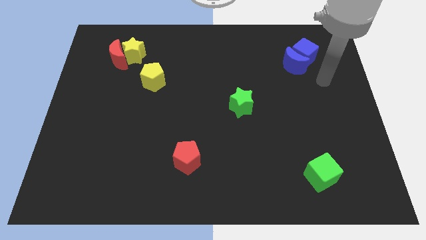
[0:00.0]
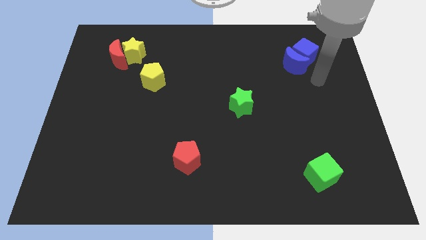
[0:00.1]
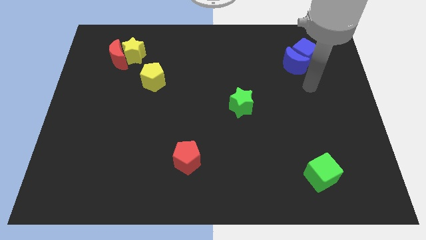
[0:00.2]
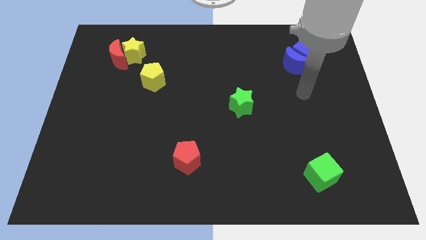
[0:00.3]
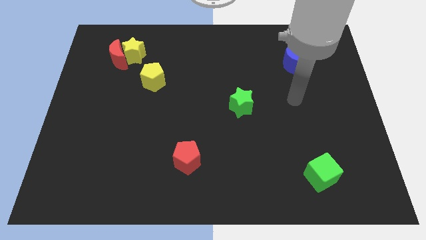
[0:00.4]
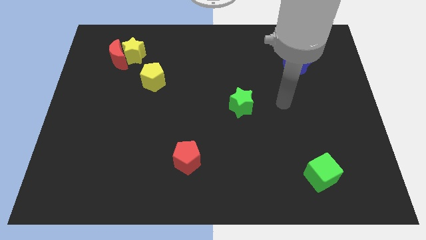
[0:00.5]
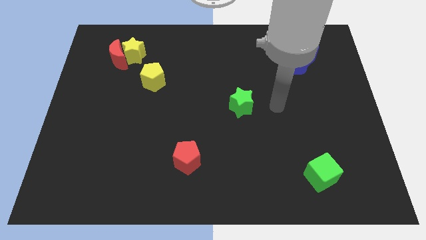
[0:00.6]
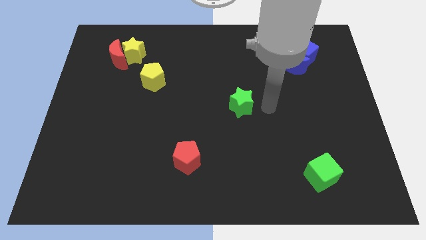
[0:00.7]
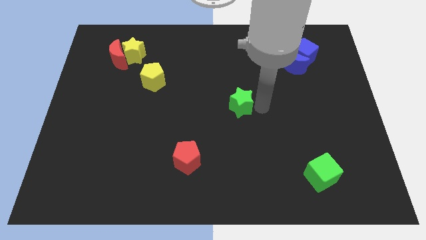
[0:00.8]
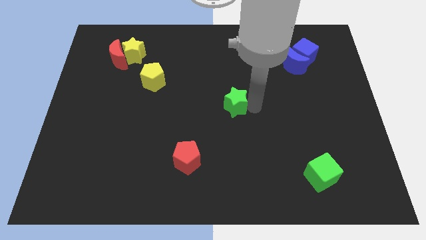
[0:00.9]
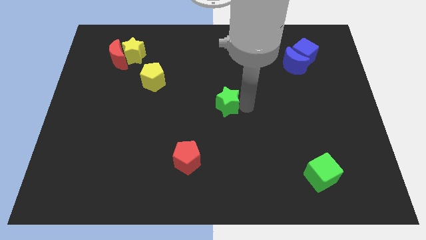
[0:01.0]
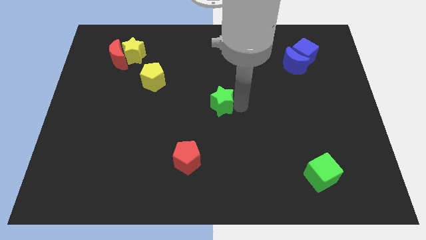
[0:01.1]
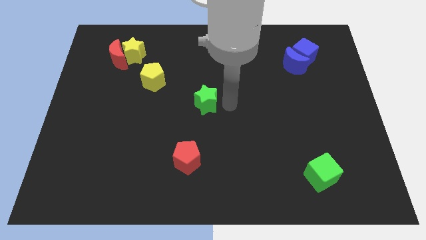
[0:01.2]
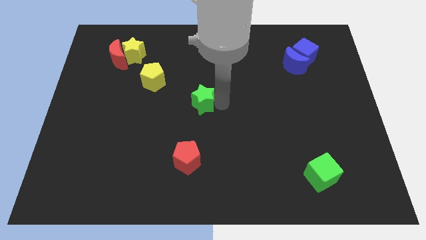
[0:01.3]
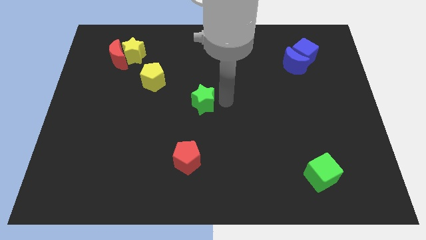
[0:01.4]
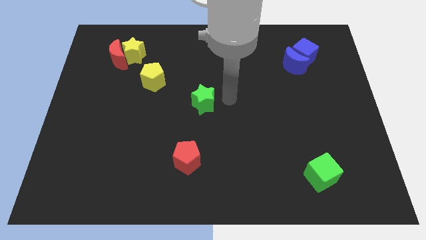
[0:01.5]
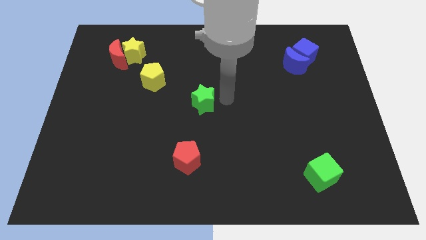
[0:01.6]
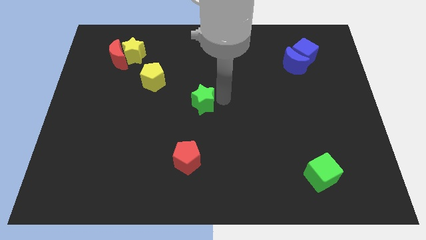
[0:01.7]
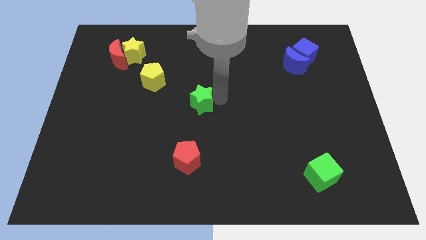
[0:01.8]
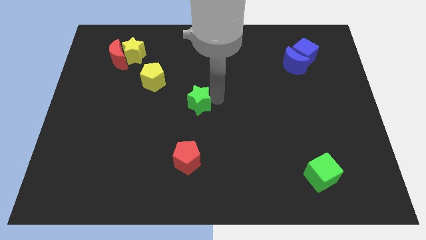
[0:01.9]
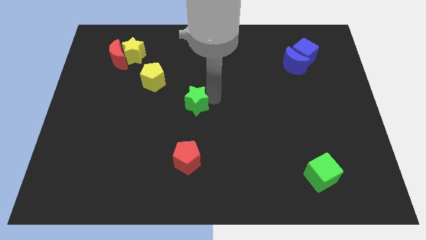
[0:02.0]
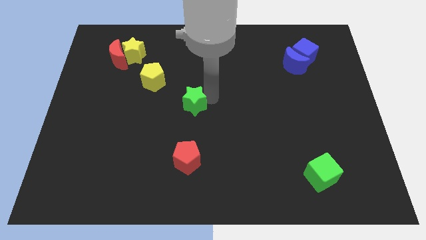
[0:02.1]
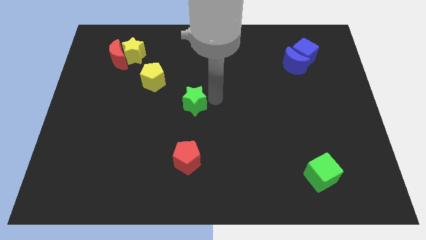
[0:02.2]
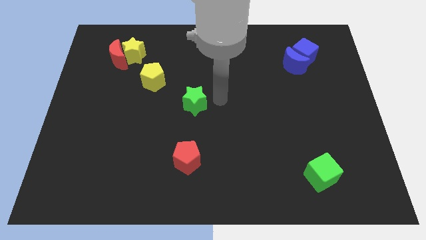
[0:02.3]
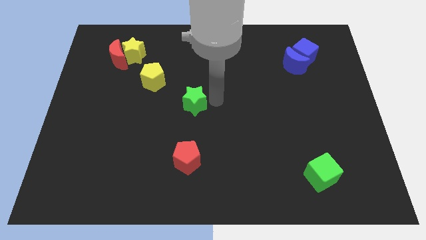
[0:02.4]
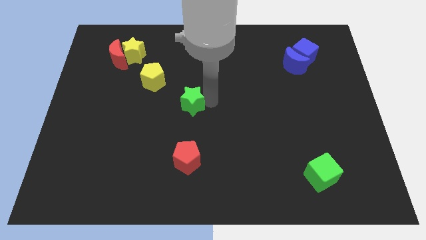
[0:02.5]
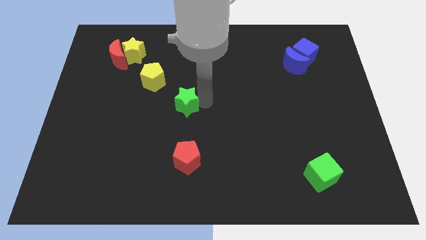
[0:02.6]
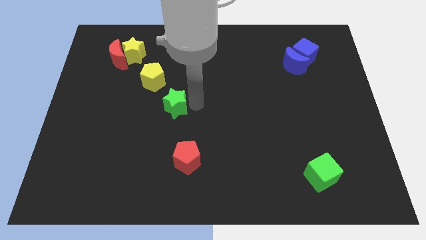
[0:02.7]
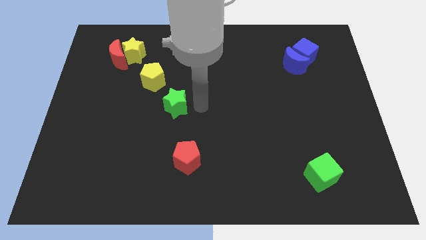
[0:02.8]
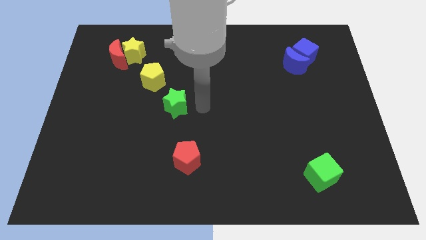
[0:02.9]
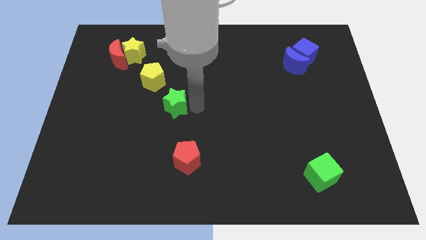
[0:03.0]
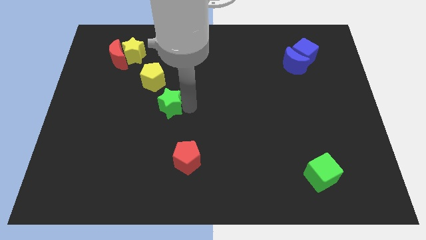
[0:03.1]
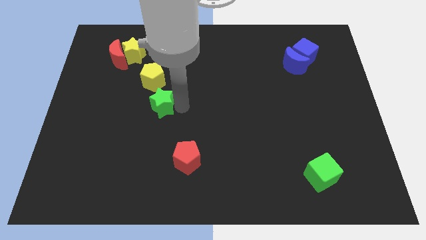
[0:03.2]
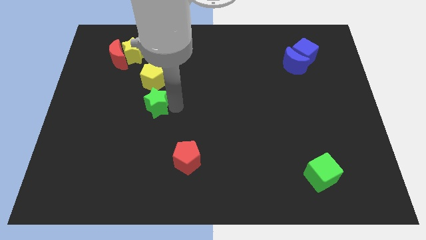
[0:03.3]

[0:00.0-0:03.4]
slide the green star left

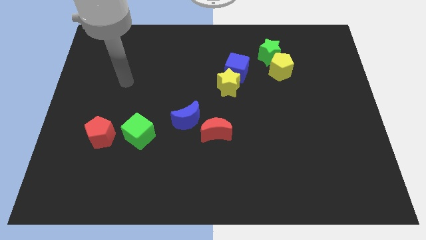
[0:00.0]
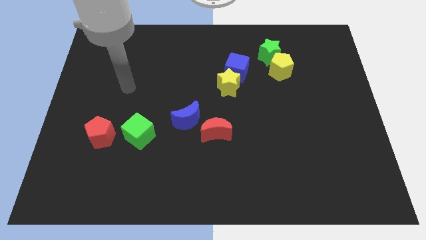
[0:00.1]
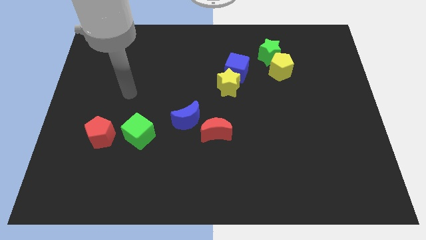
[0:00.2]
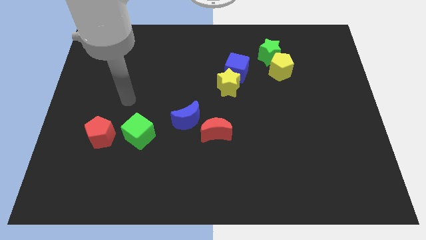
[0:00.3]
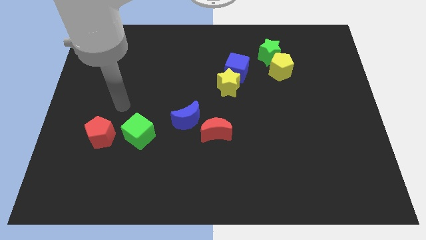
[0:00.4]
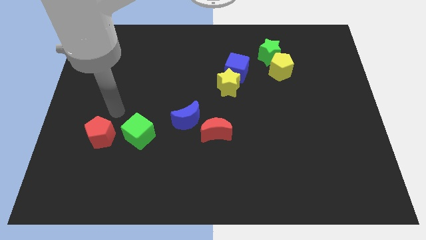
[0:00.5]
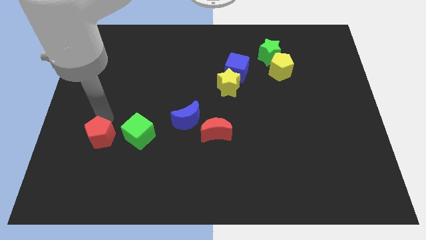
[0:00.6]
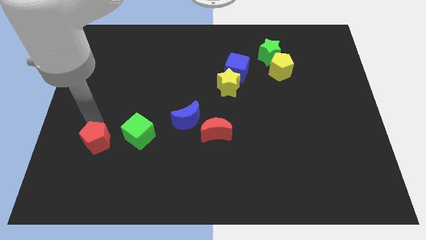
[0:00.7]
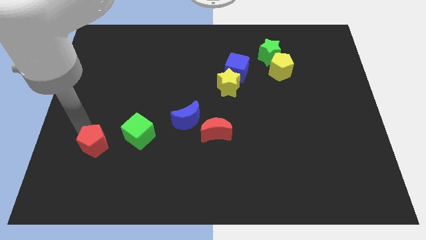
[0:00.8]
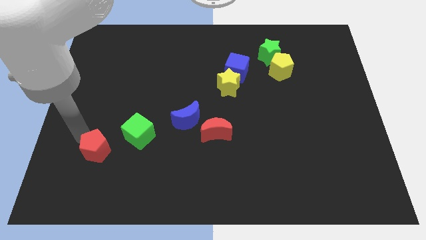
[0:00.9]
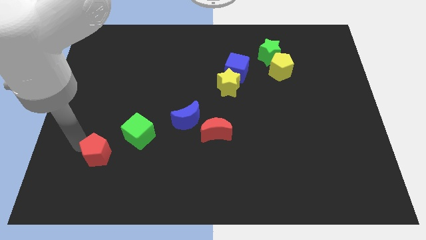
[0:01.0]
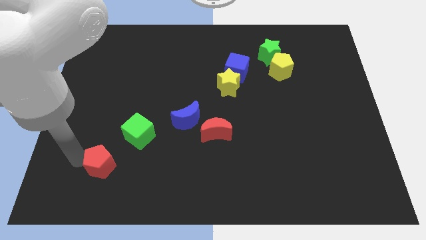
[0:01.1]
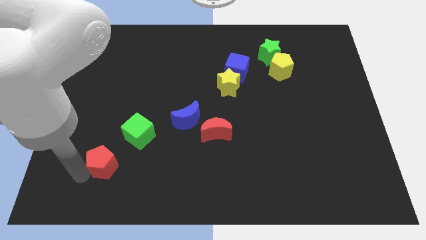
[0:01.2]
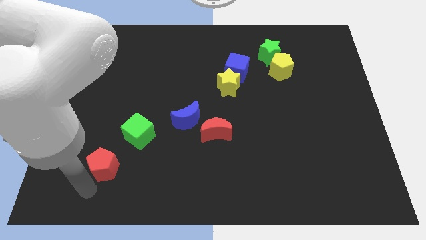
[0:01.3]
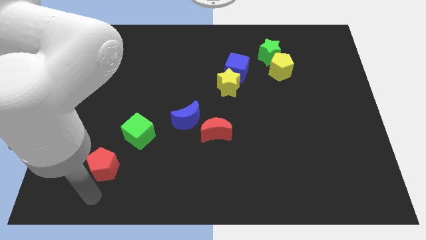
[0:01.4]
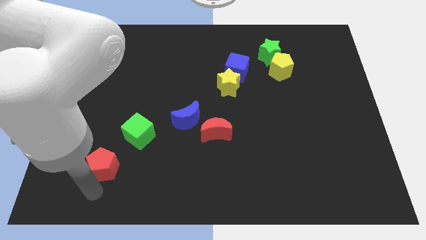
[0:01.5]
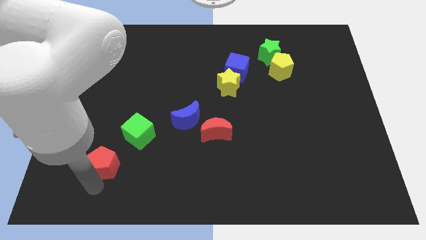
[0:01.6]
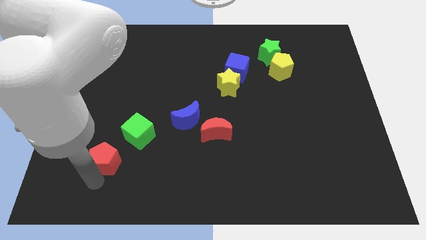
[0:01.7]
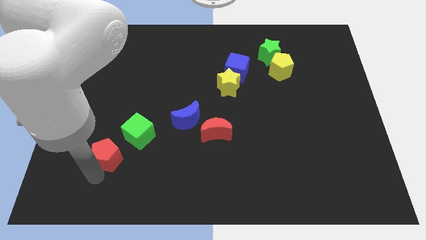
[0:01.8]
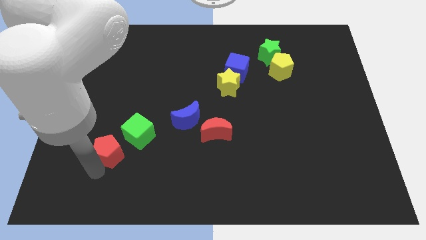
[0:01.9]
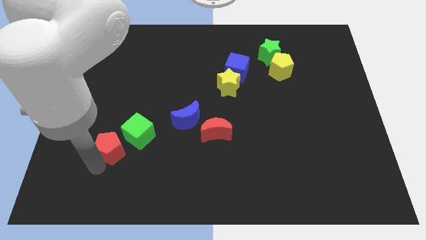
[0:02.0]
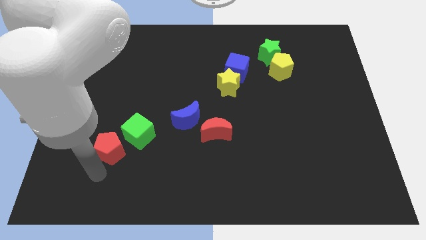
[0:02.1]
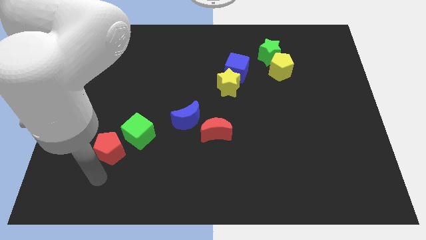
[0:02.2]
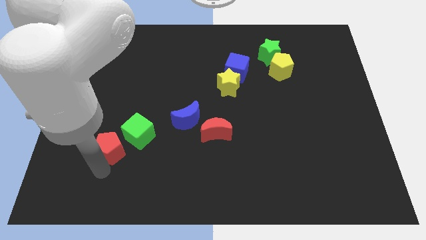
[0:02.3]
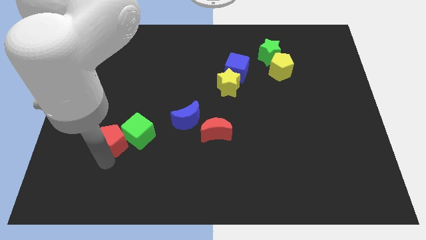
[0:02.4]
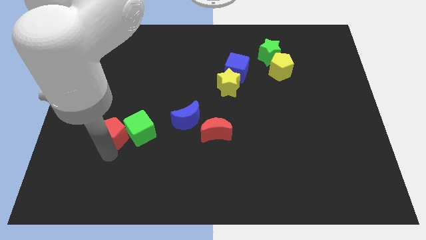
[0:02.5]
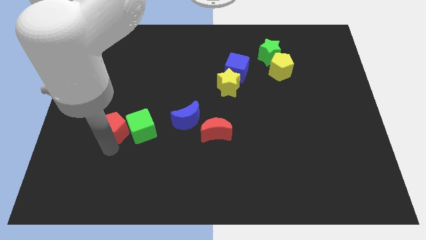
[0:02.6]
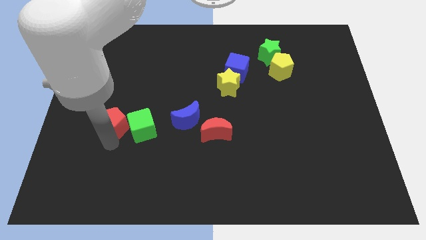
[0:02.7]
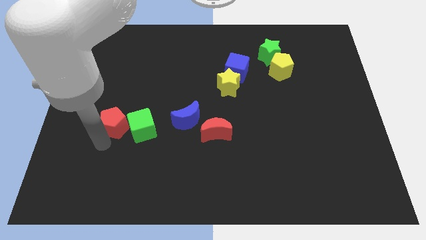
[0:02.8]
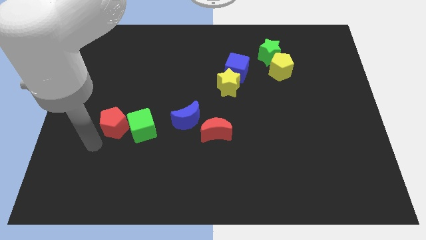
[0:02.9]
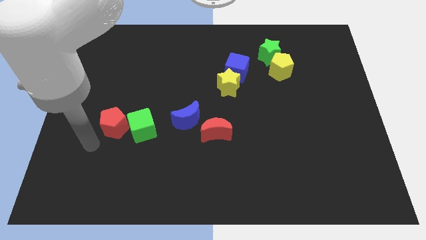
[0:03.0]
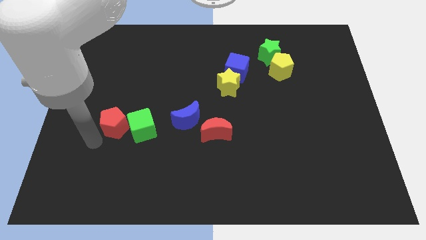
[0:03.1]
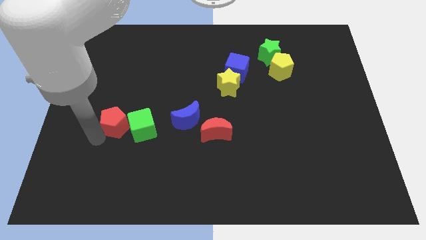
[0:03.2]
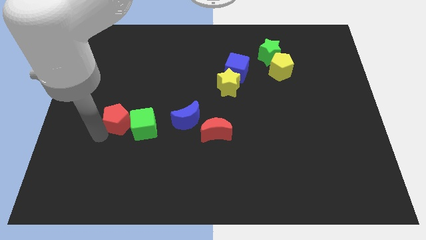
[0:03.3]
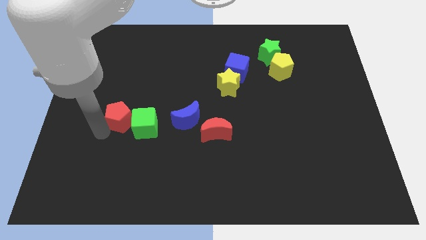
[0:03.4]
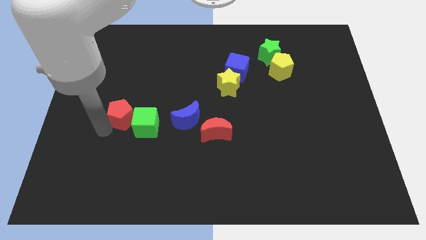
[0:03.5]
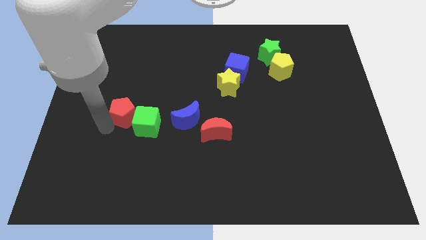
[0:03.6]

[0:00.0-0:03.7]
slightly slide the red pentagon diagonally up and to the right

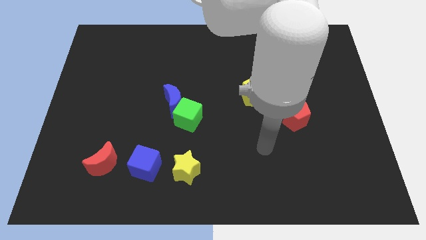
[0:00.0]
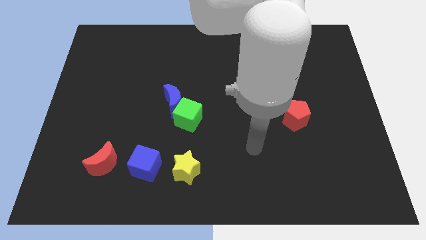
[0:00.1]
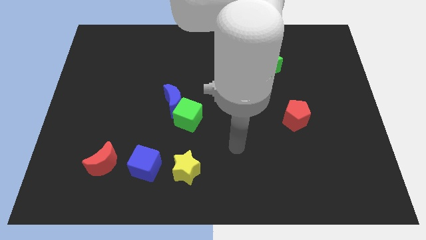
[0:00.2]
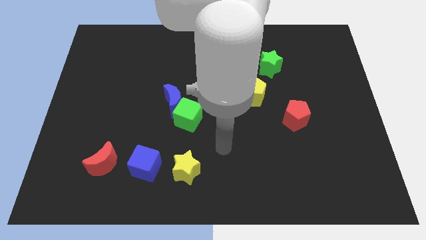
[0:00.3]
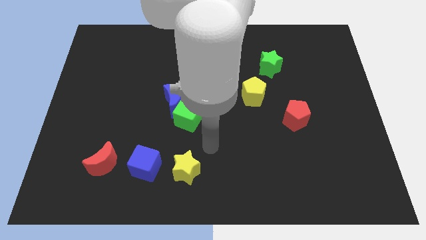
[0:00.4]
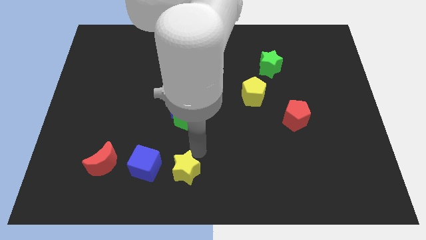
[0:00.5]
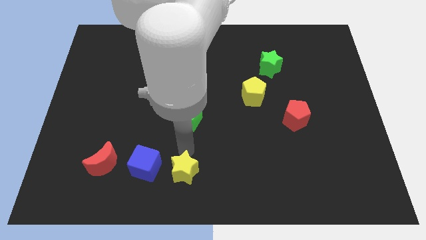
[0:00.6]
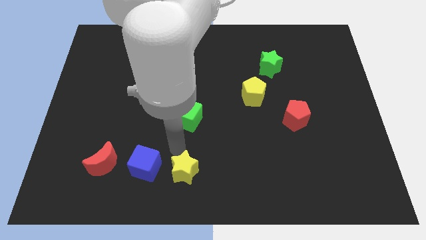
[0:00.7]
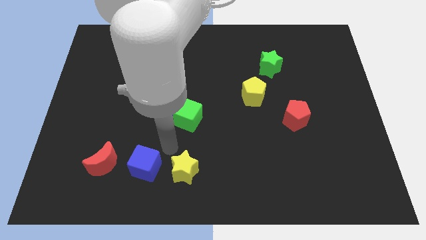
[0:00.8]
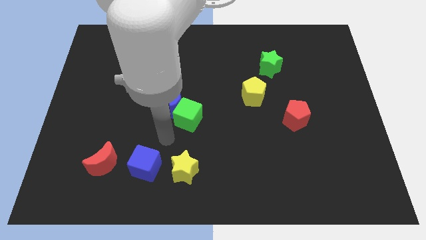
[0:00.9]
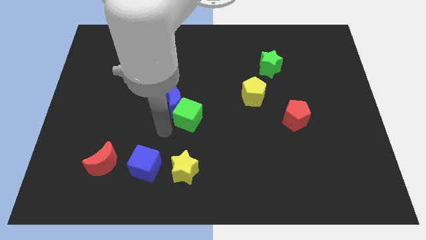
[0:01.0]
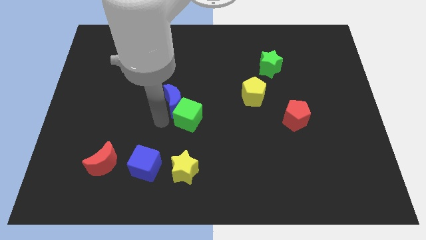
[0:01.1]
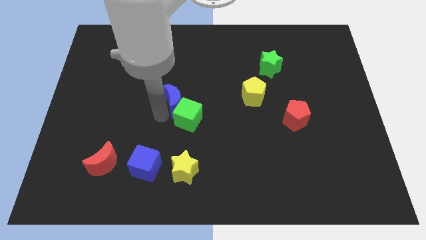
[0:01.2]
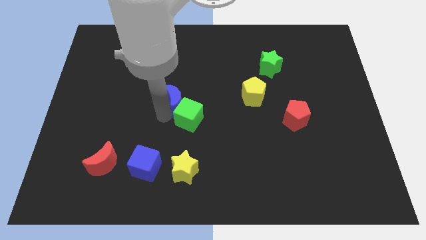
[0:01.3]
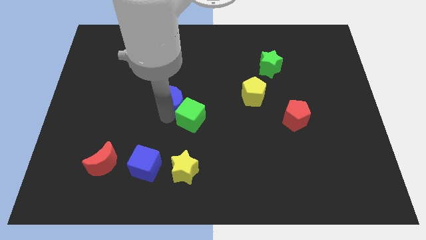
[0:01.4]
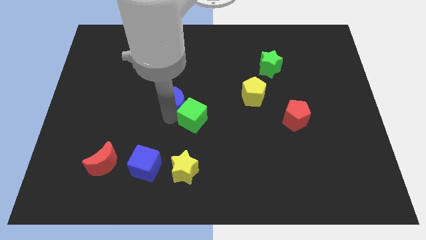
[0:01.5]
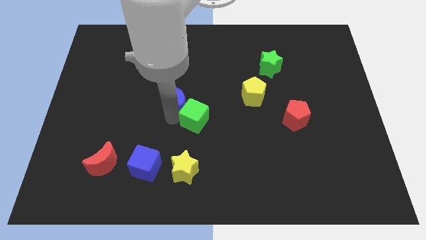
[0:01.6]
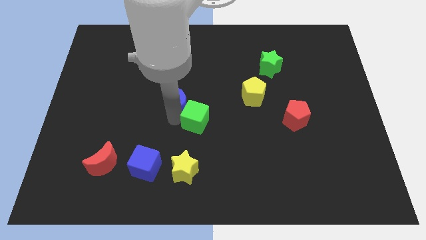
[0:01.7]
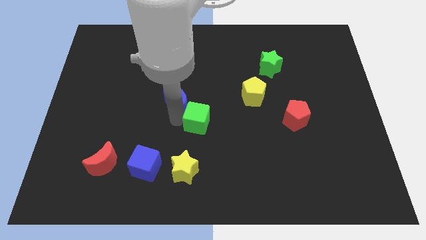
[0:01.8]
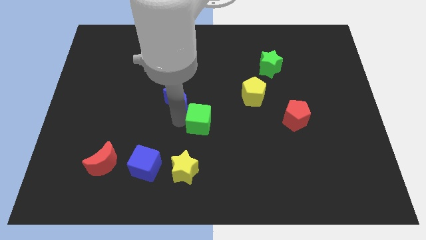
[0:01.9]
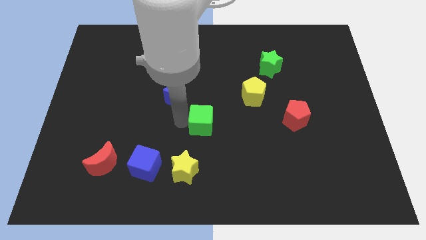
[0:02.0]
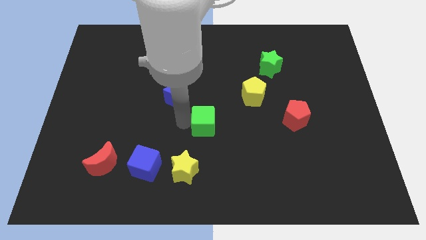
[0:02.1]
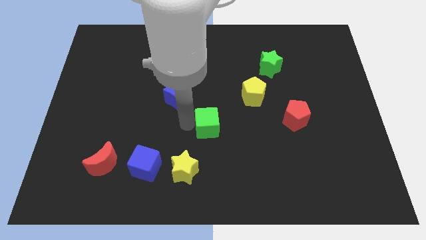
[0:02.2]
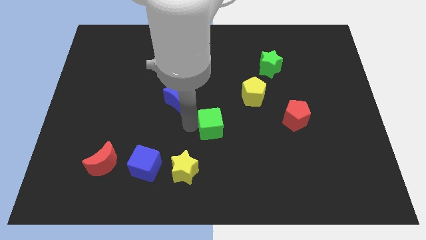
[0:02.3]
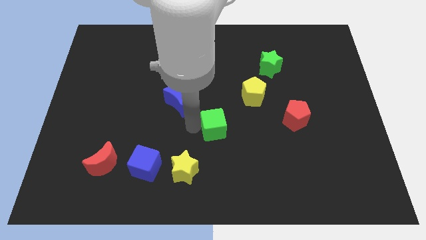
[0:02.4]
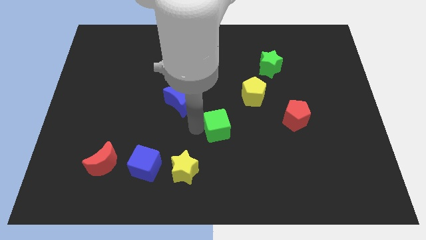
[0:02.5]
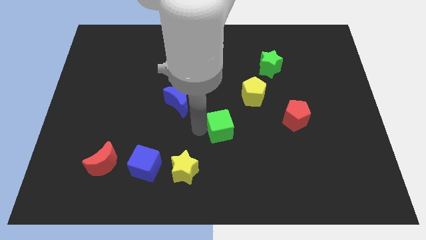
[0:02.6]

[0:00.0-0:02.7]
slightly slide the green cube to the right
